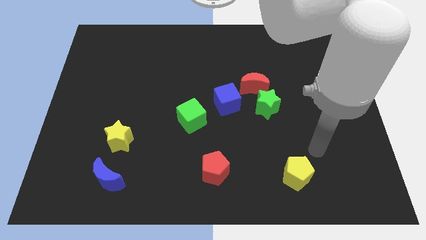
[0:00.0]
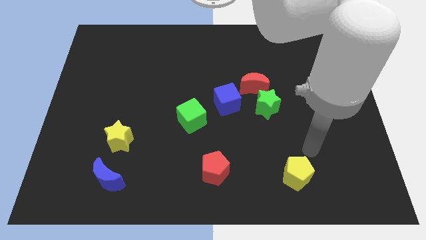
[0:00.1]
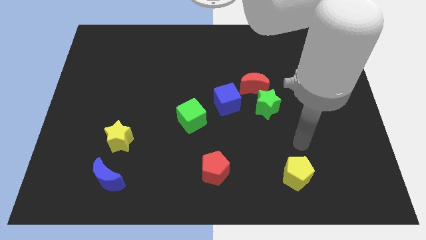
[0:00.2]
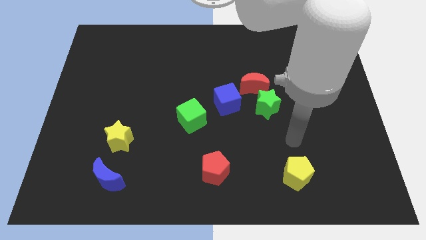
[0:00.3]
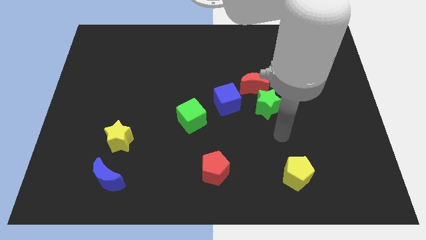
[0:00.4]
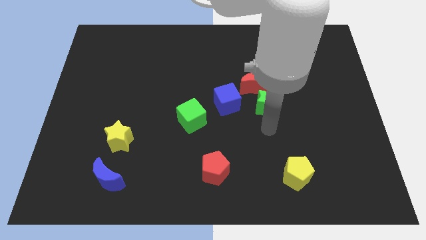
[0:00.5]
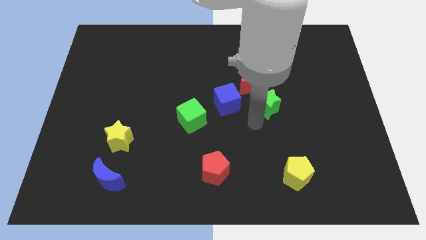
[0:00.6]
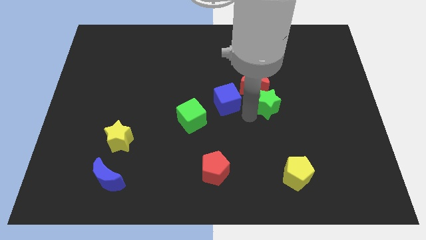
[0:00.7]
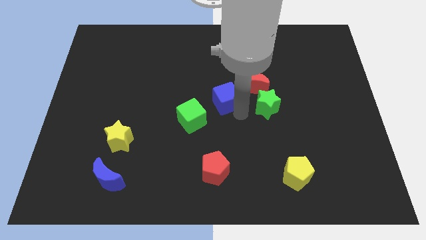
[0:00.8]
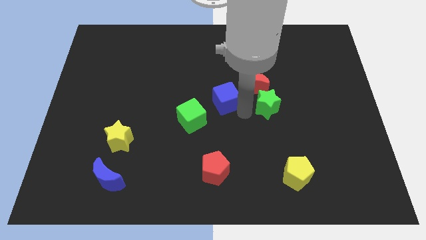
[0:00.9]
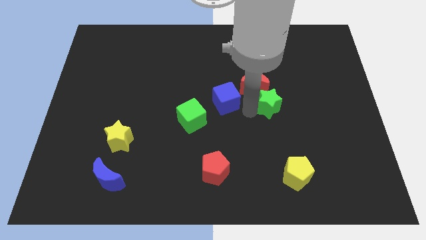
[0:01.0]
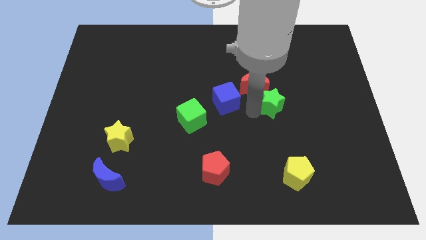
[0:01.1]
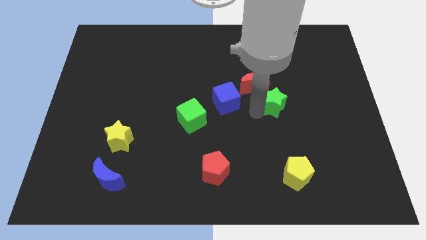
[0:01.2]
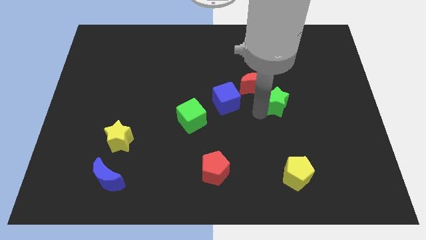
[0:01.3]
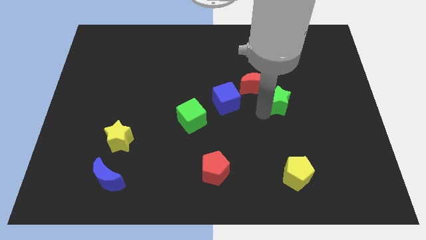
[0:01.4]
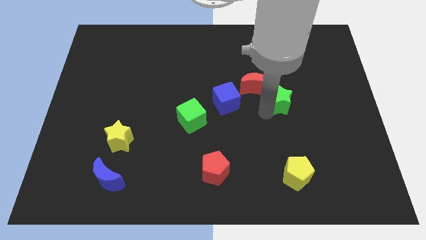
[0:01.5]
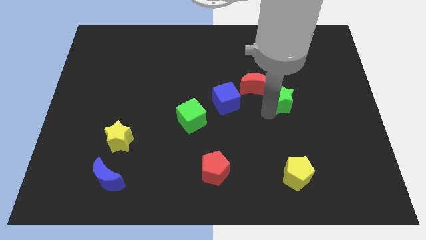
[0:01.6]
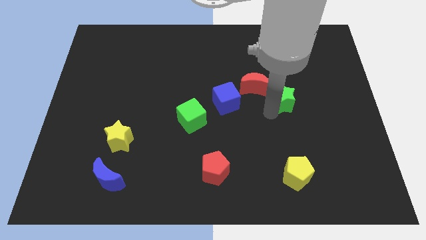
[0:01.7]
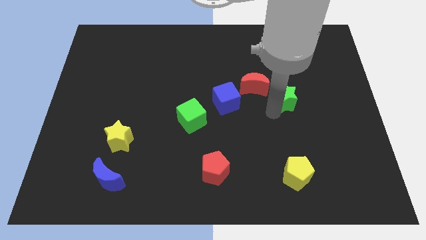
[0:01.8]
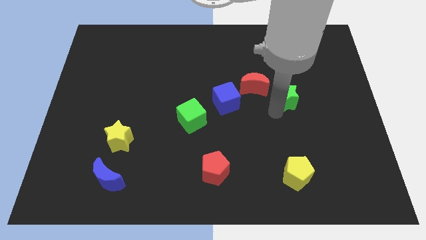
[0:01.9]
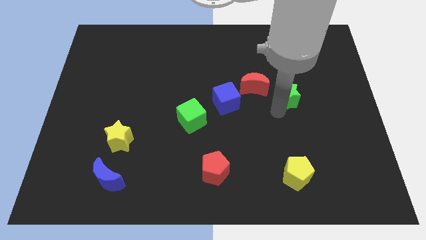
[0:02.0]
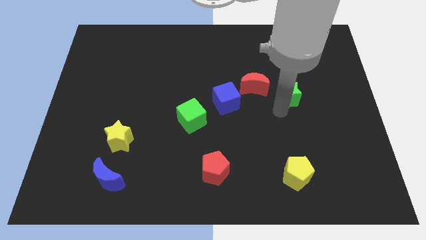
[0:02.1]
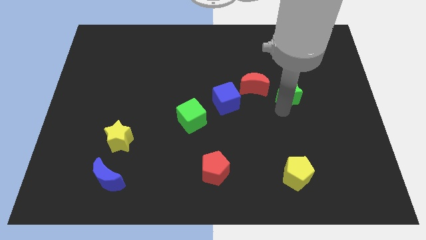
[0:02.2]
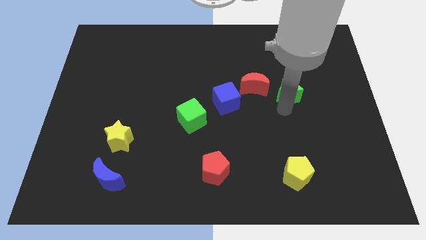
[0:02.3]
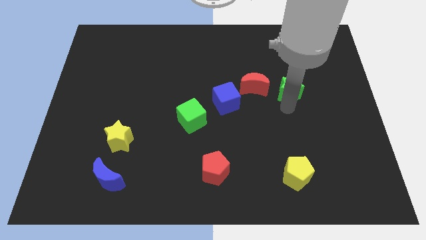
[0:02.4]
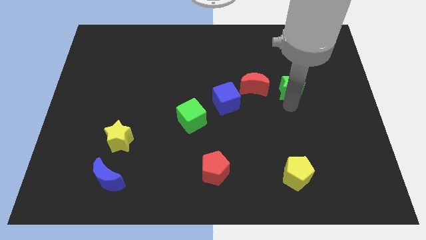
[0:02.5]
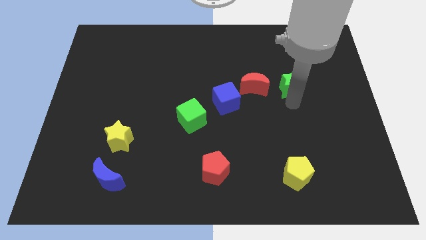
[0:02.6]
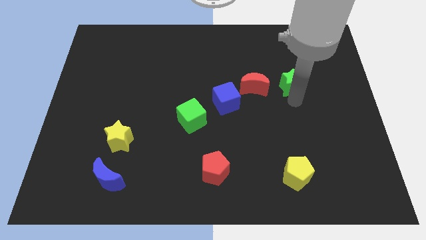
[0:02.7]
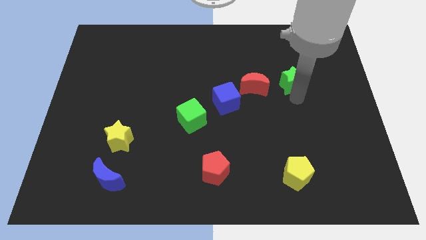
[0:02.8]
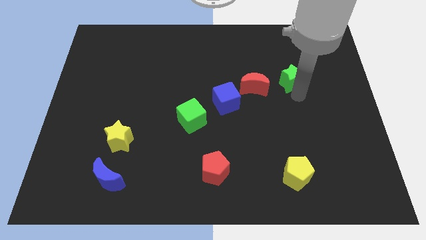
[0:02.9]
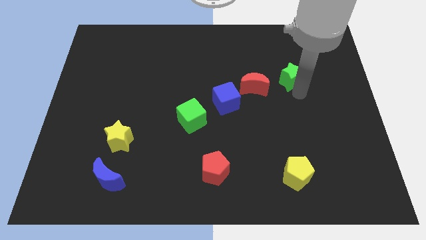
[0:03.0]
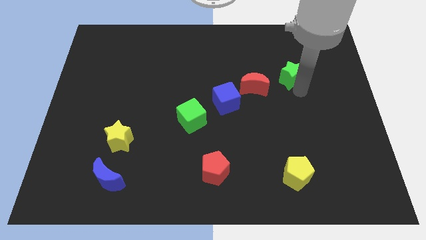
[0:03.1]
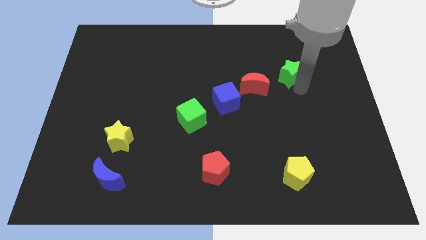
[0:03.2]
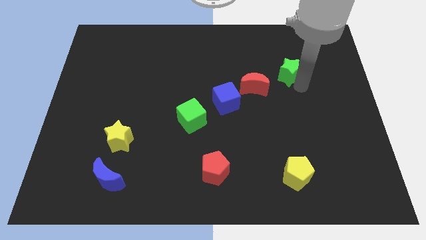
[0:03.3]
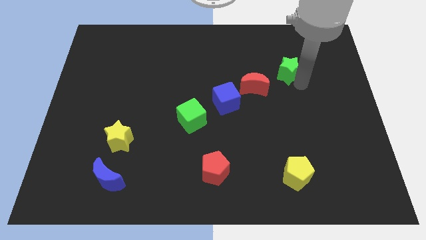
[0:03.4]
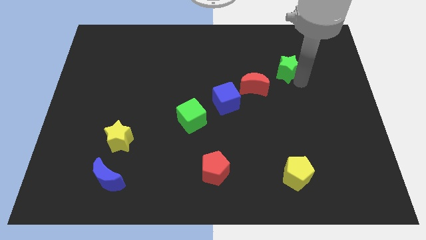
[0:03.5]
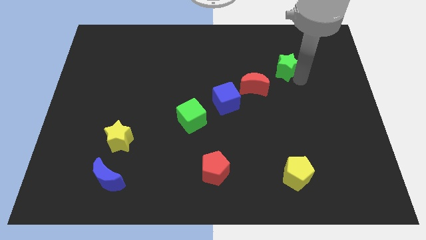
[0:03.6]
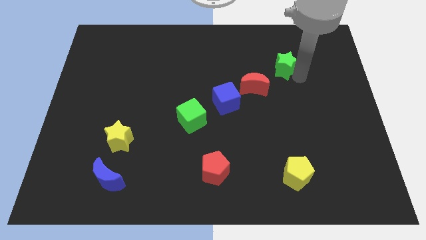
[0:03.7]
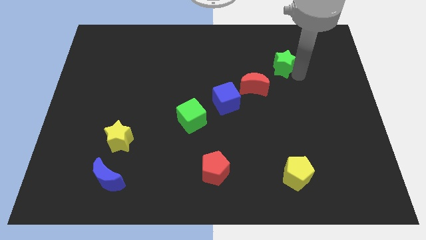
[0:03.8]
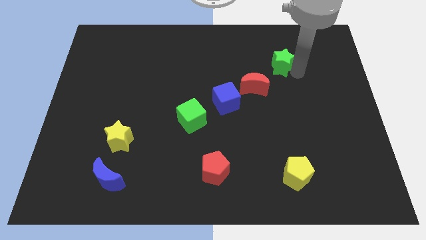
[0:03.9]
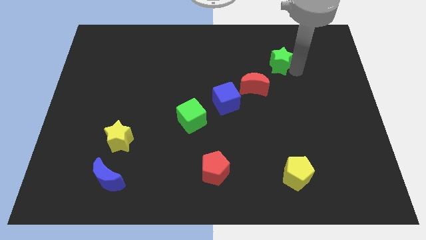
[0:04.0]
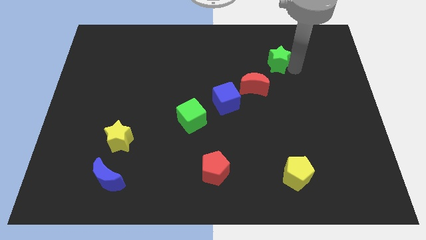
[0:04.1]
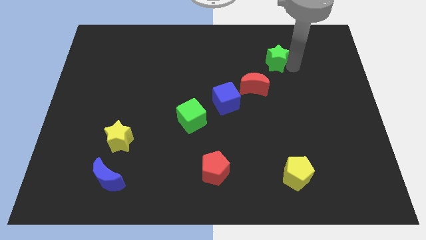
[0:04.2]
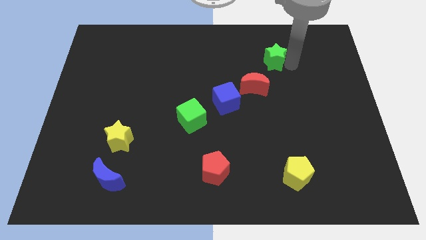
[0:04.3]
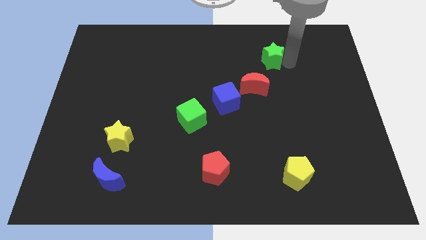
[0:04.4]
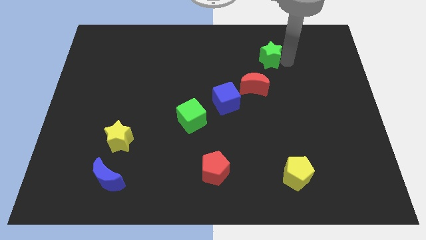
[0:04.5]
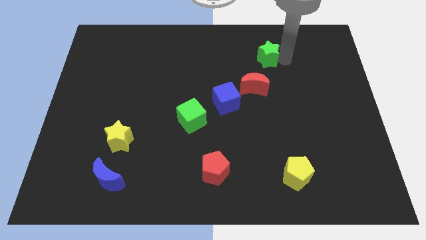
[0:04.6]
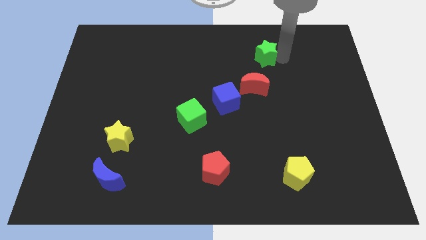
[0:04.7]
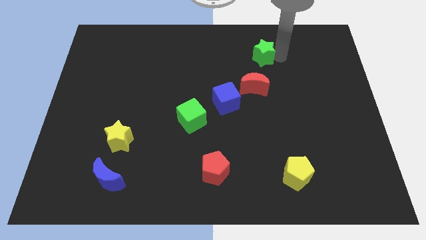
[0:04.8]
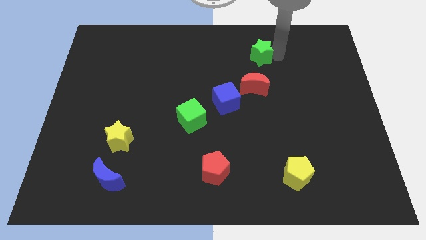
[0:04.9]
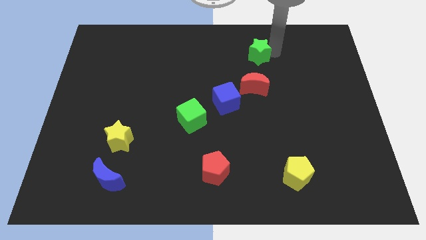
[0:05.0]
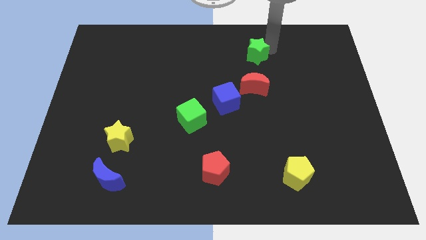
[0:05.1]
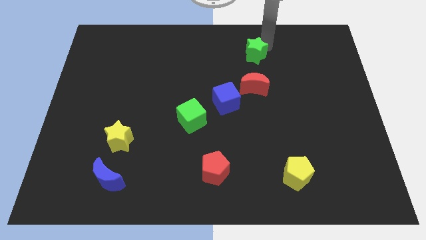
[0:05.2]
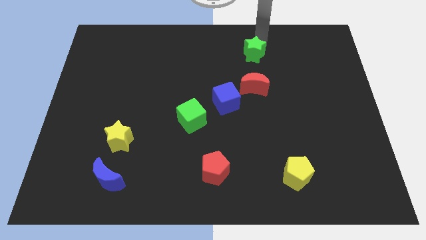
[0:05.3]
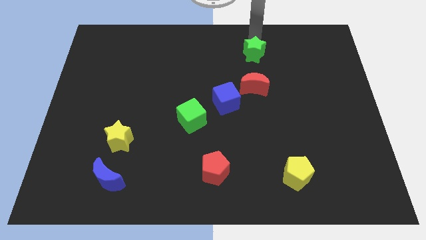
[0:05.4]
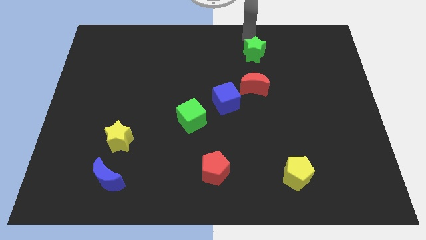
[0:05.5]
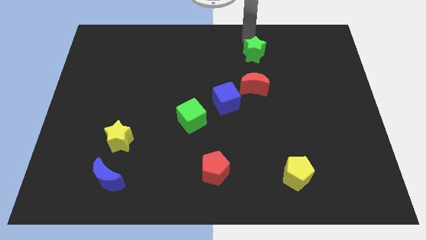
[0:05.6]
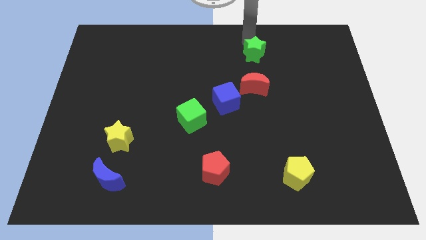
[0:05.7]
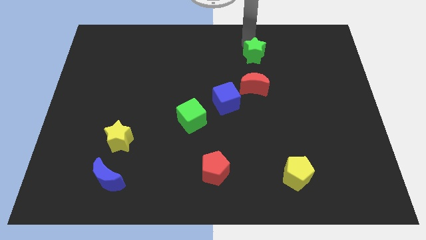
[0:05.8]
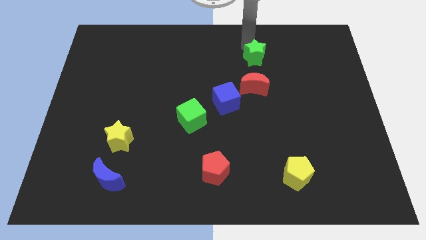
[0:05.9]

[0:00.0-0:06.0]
slightly push the green star up and to the left

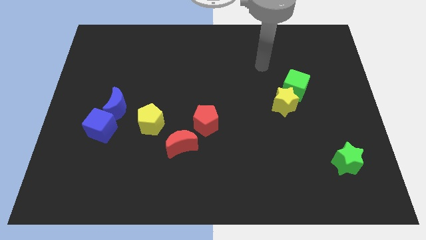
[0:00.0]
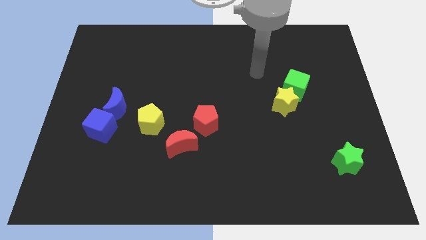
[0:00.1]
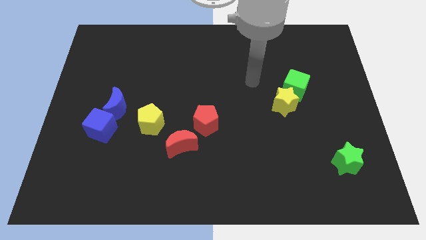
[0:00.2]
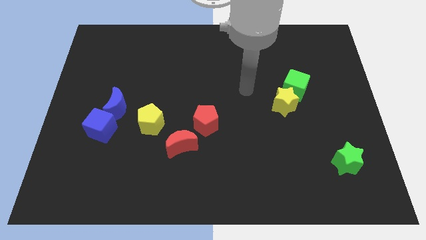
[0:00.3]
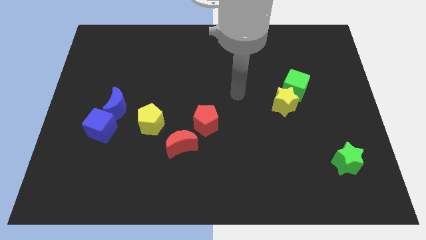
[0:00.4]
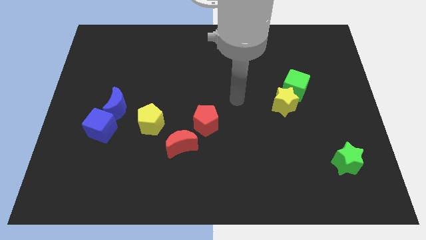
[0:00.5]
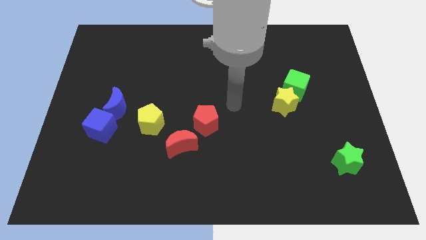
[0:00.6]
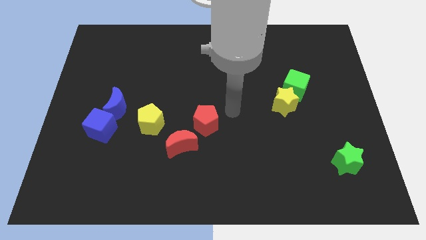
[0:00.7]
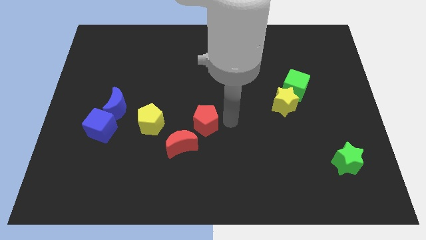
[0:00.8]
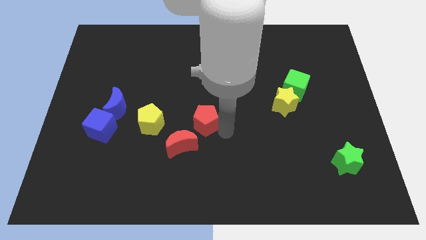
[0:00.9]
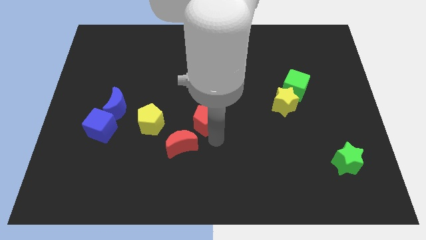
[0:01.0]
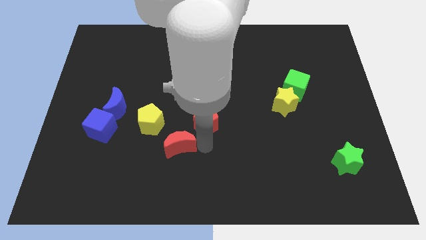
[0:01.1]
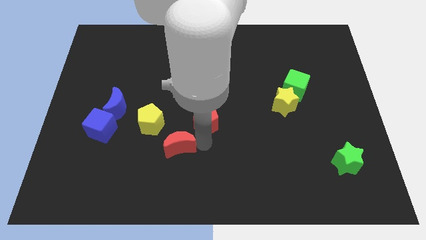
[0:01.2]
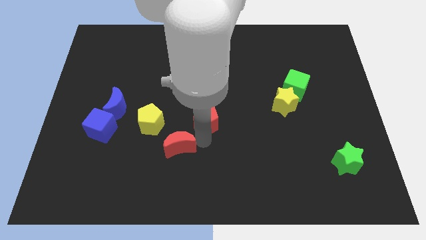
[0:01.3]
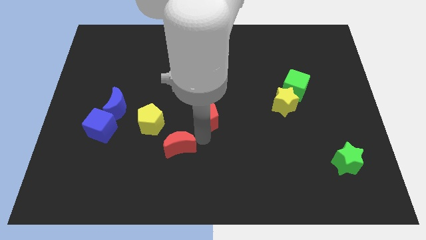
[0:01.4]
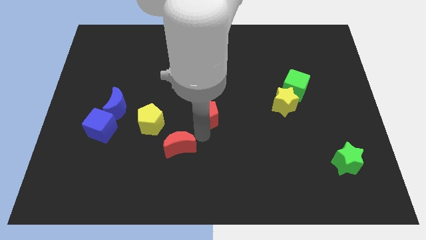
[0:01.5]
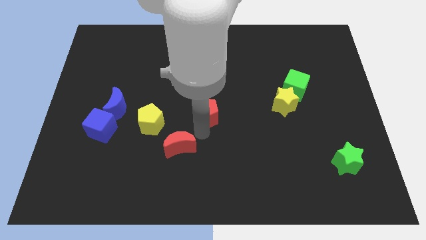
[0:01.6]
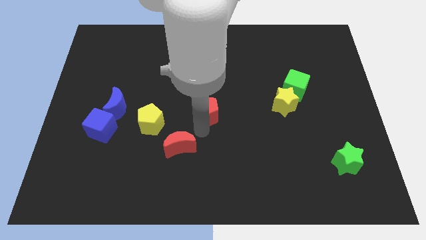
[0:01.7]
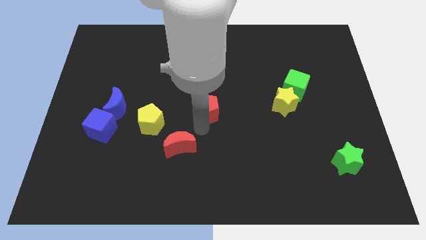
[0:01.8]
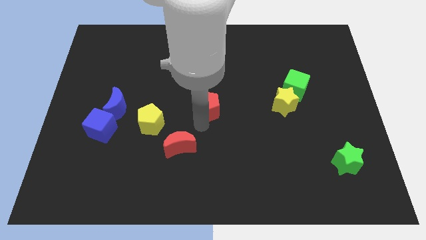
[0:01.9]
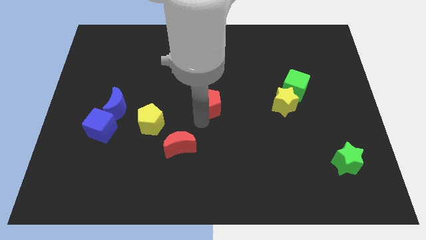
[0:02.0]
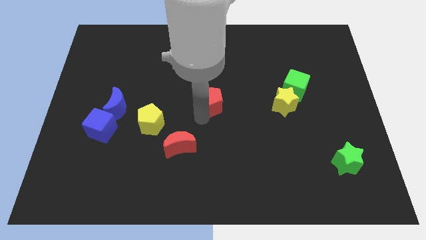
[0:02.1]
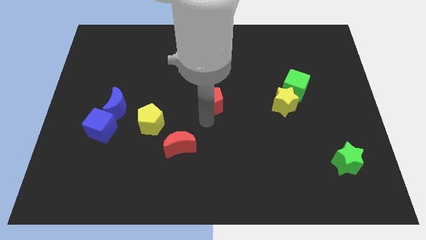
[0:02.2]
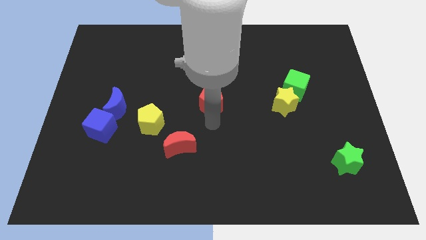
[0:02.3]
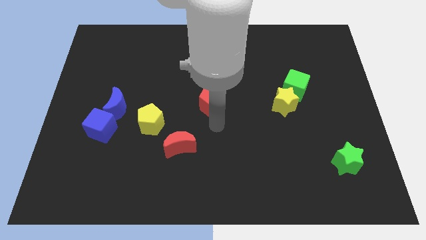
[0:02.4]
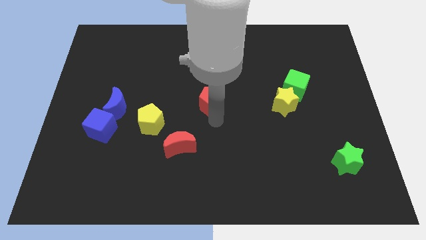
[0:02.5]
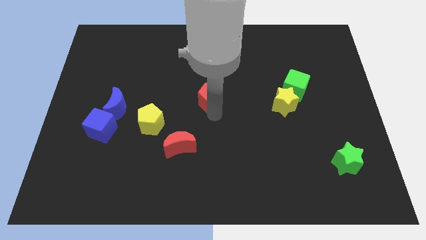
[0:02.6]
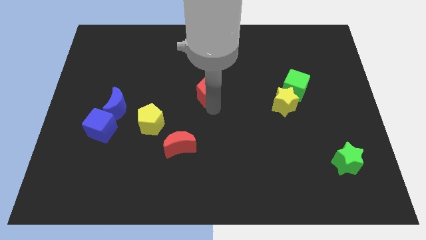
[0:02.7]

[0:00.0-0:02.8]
move the red pentagon upwards somewhat
